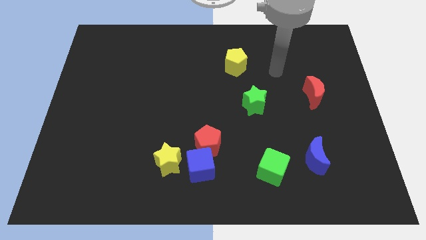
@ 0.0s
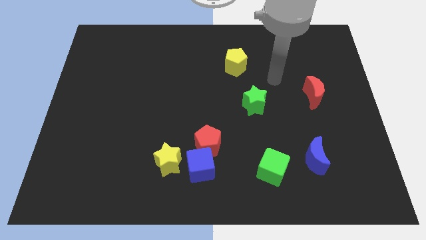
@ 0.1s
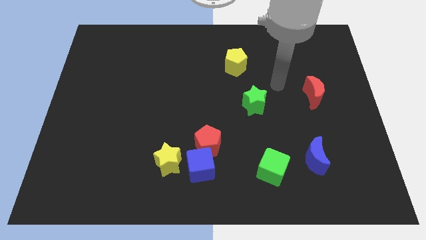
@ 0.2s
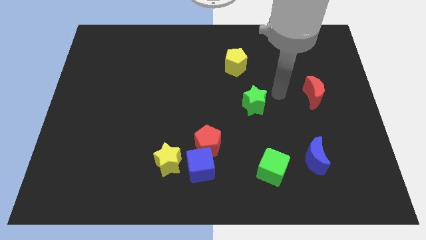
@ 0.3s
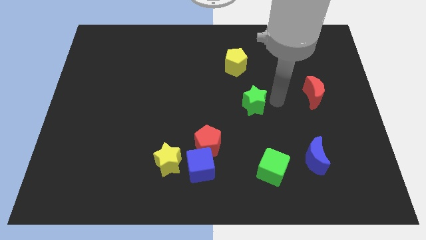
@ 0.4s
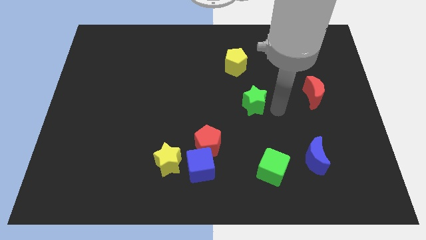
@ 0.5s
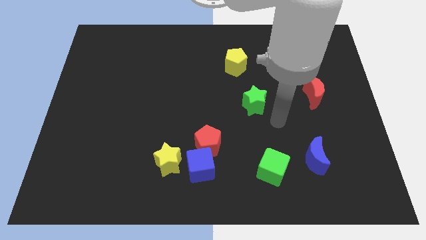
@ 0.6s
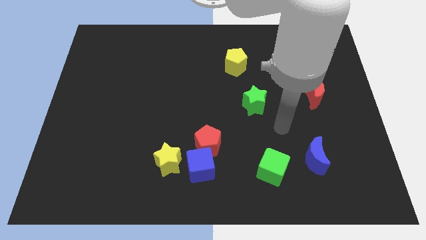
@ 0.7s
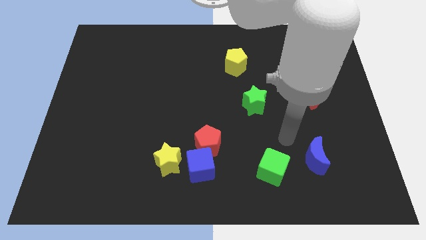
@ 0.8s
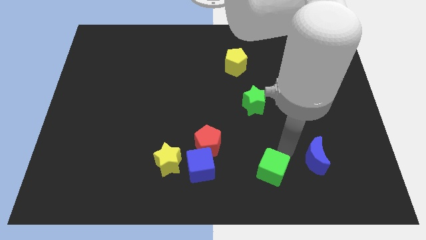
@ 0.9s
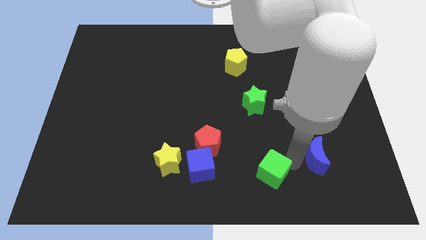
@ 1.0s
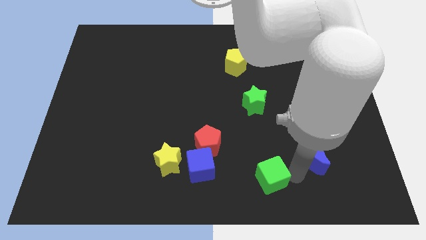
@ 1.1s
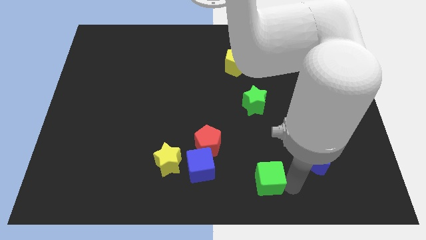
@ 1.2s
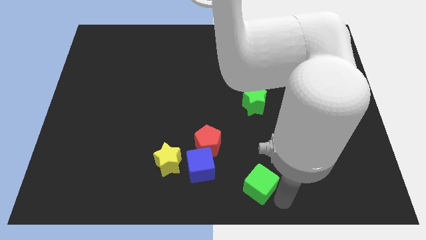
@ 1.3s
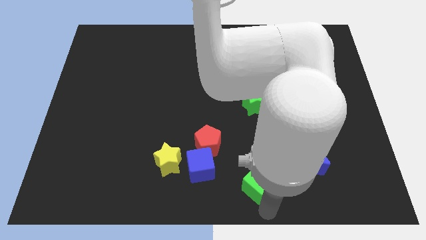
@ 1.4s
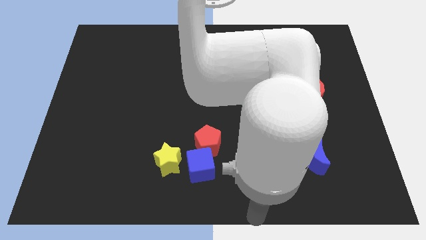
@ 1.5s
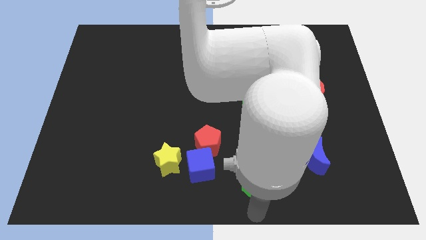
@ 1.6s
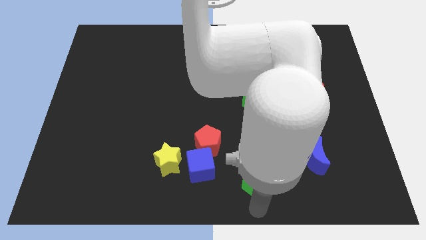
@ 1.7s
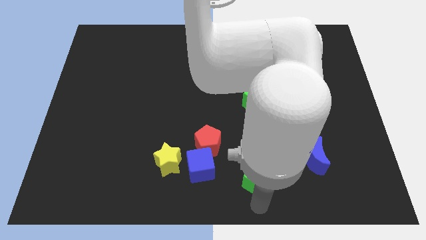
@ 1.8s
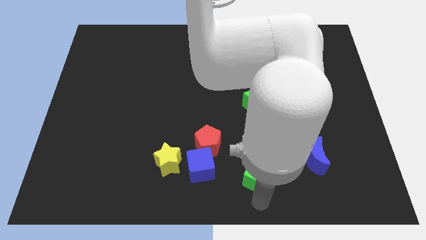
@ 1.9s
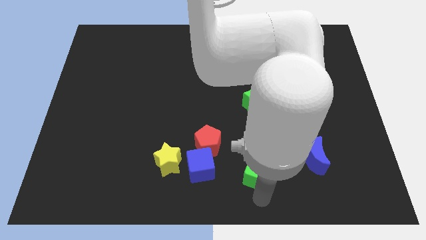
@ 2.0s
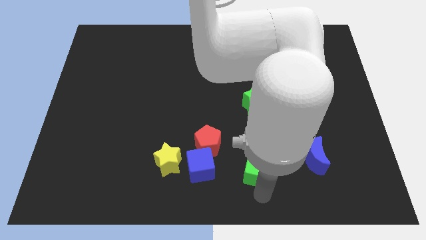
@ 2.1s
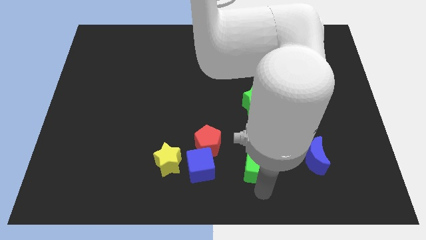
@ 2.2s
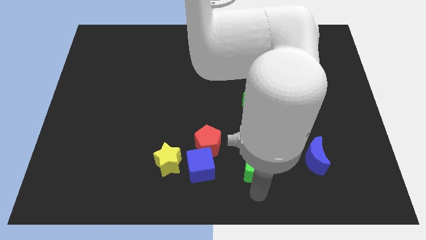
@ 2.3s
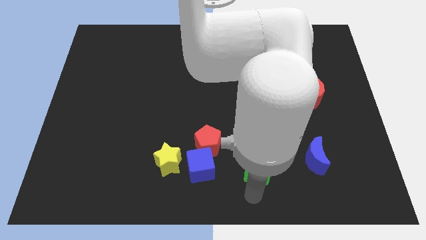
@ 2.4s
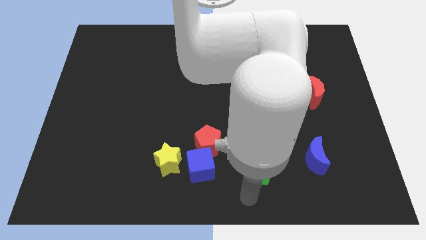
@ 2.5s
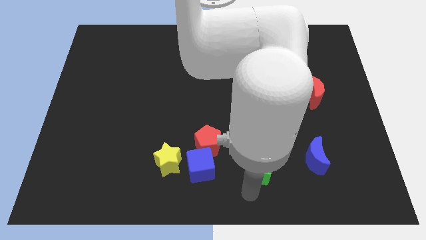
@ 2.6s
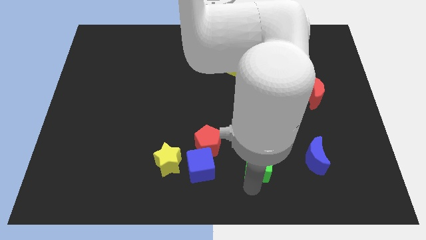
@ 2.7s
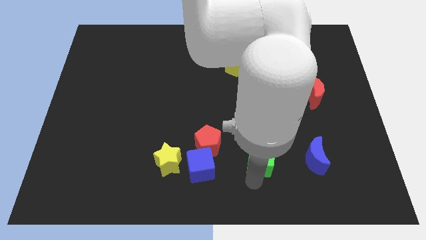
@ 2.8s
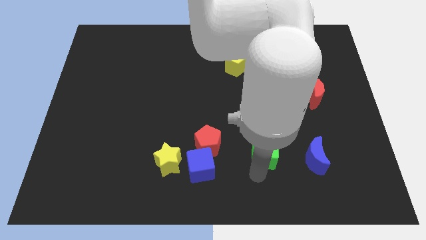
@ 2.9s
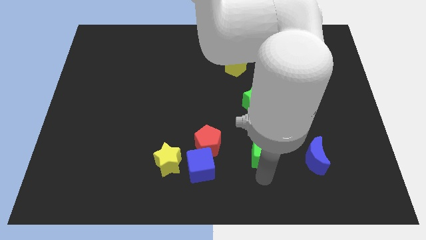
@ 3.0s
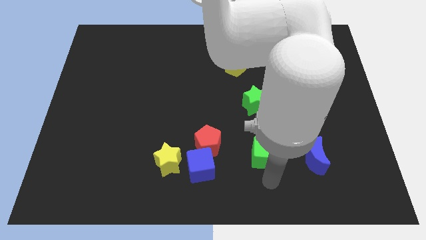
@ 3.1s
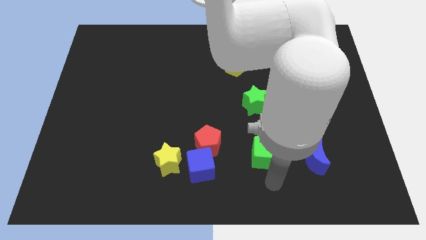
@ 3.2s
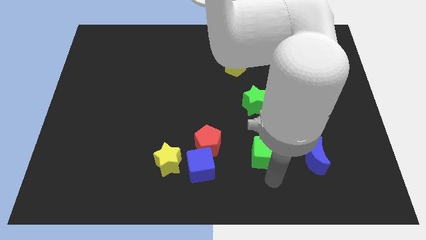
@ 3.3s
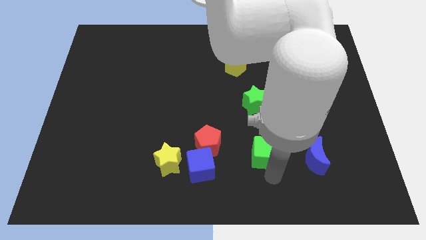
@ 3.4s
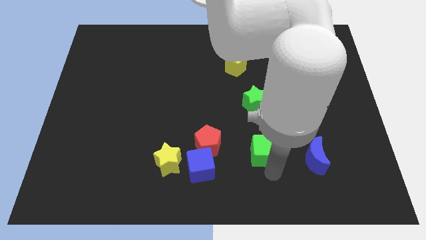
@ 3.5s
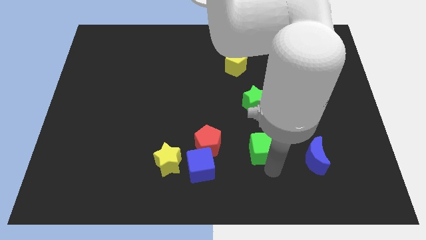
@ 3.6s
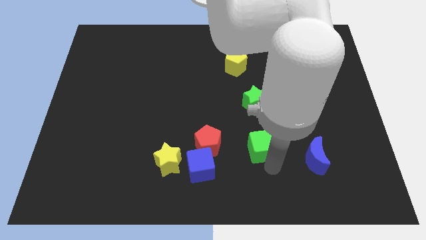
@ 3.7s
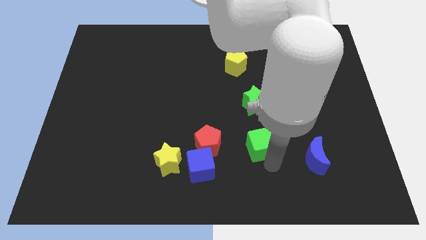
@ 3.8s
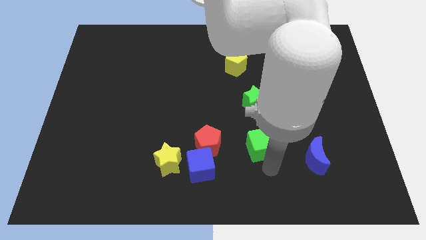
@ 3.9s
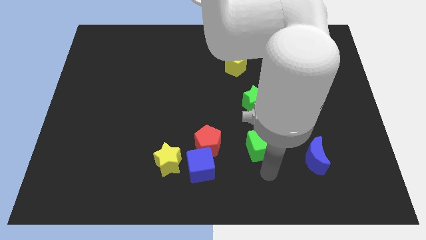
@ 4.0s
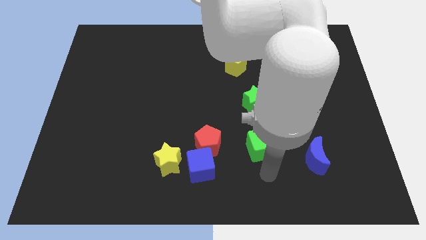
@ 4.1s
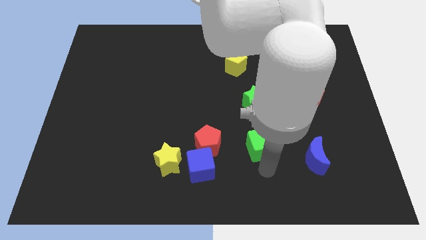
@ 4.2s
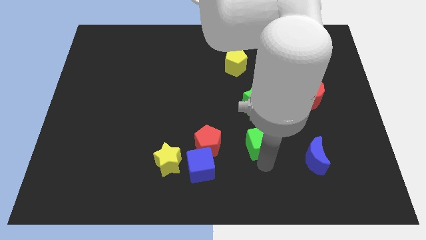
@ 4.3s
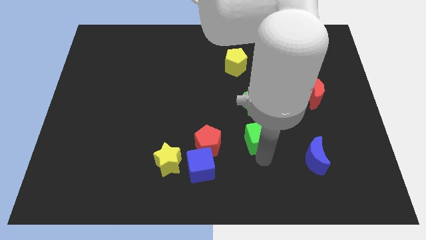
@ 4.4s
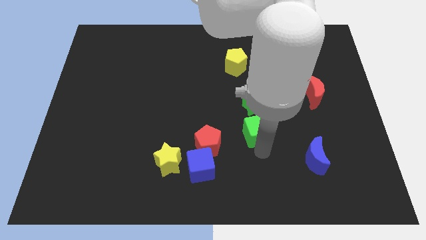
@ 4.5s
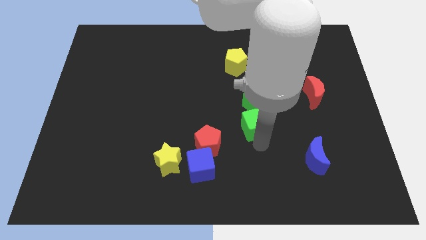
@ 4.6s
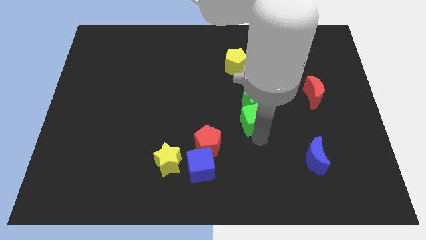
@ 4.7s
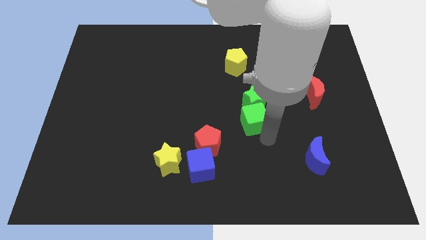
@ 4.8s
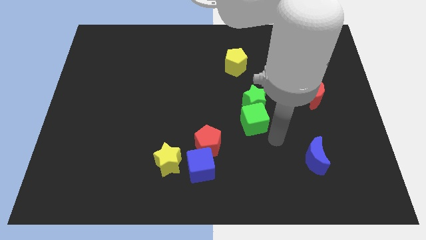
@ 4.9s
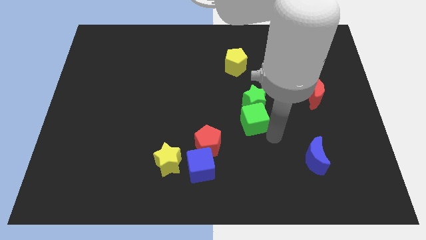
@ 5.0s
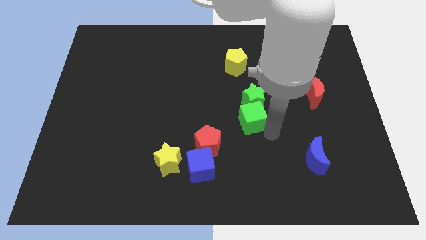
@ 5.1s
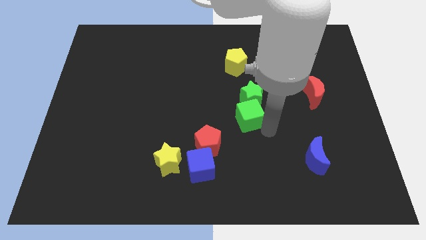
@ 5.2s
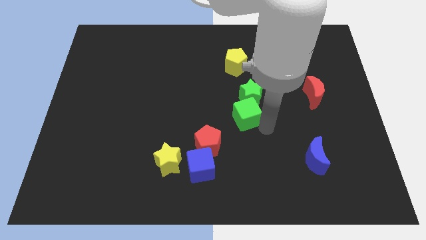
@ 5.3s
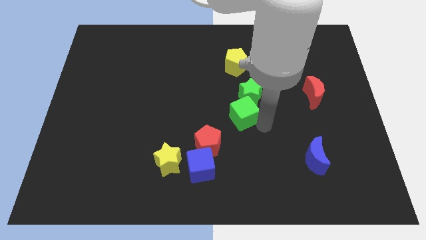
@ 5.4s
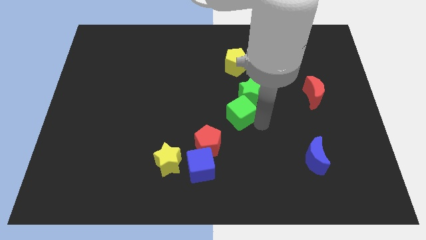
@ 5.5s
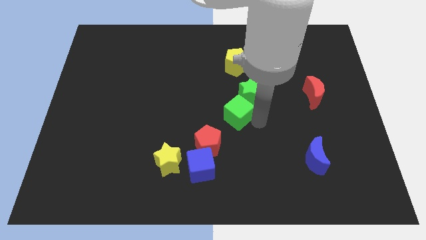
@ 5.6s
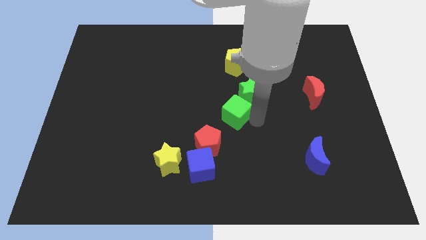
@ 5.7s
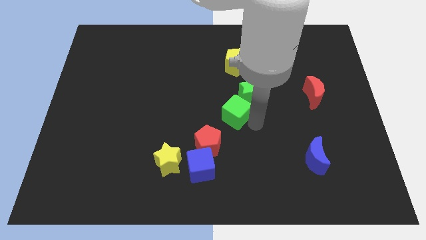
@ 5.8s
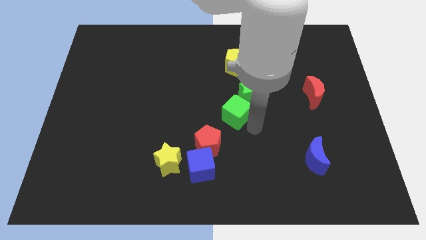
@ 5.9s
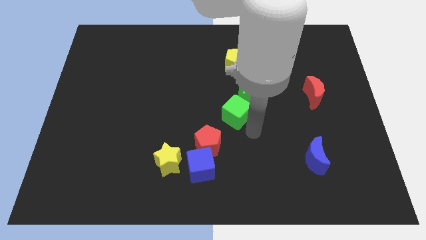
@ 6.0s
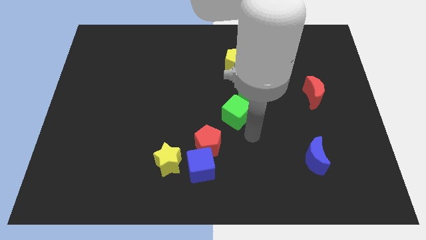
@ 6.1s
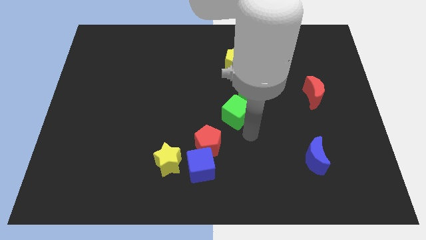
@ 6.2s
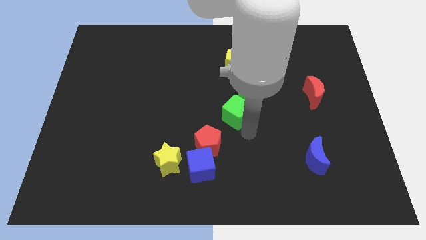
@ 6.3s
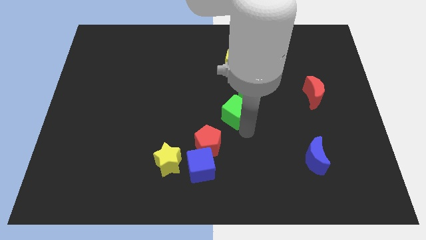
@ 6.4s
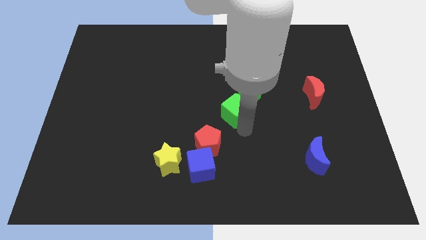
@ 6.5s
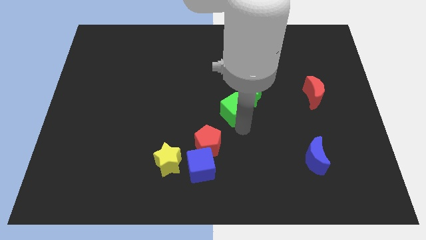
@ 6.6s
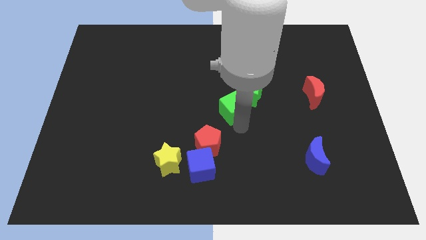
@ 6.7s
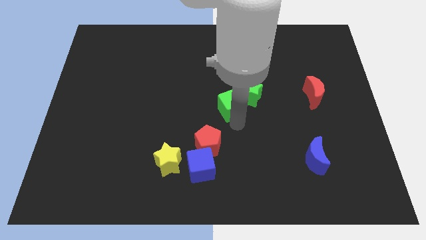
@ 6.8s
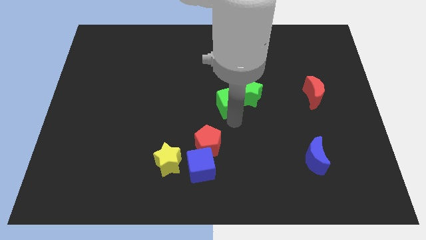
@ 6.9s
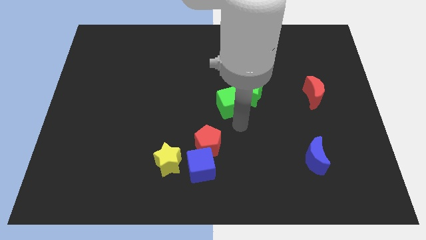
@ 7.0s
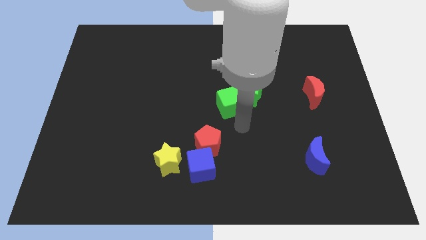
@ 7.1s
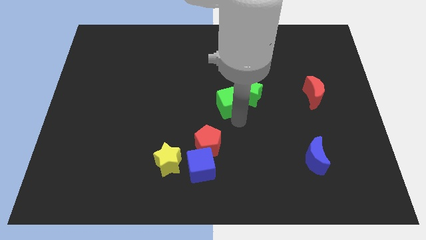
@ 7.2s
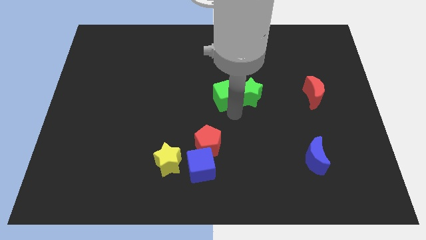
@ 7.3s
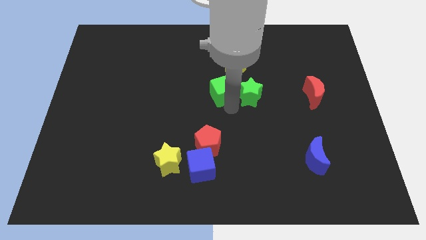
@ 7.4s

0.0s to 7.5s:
move the green cube to the bottom left of the yellow pentagon
